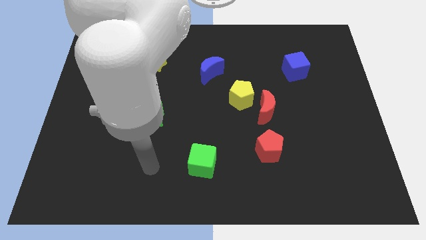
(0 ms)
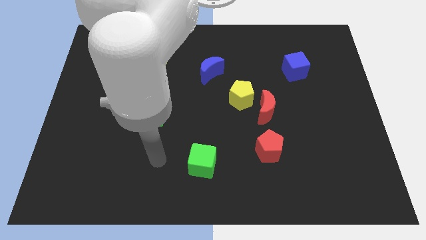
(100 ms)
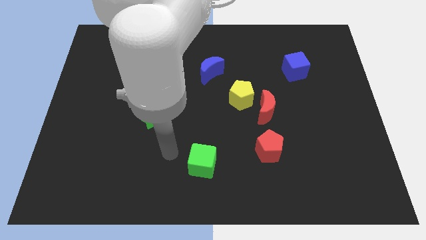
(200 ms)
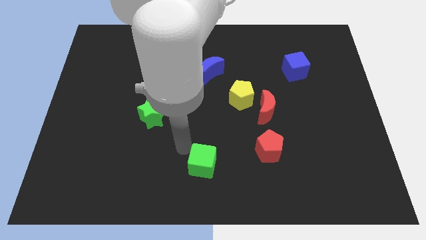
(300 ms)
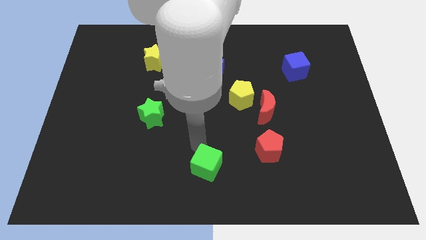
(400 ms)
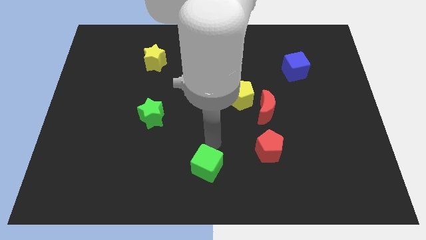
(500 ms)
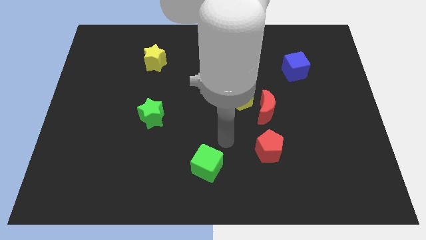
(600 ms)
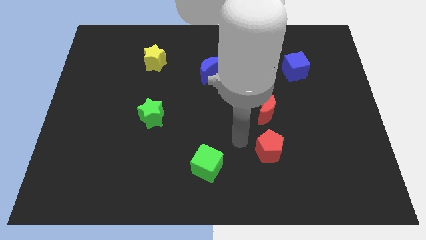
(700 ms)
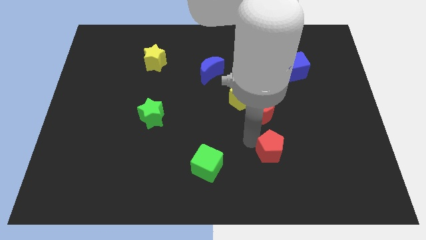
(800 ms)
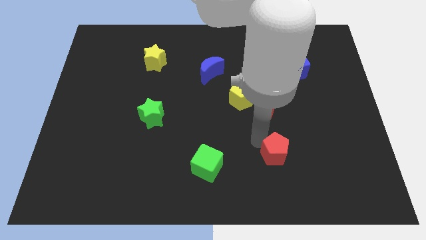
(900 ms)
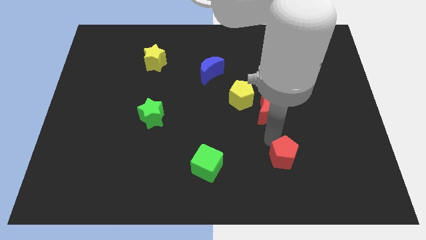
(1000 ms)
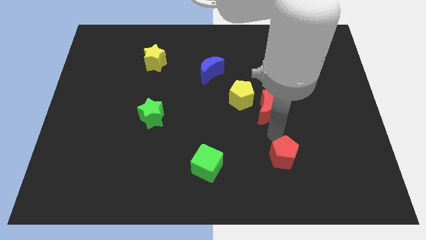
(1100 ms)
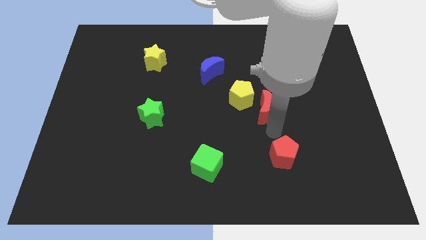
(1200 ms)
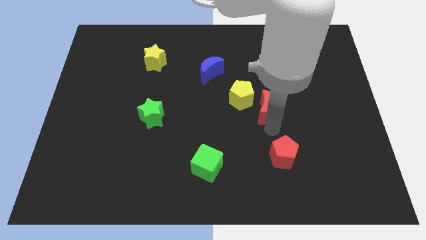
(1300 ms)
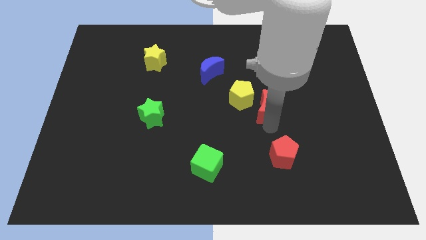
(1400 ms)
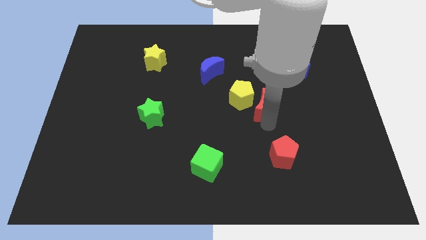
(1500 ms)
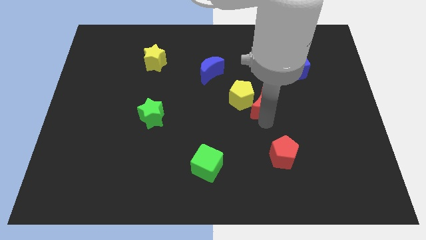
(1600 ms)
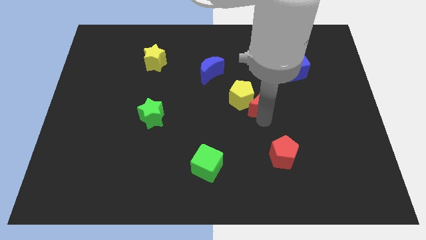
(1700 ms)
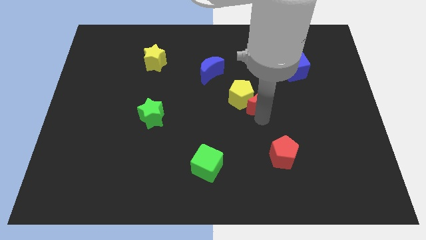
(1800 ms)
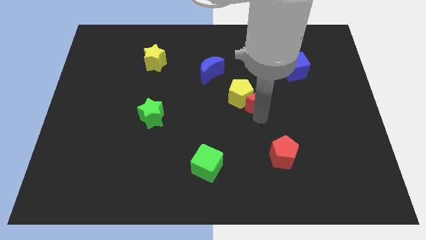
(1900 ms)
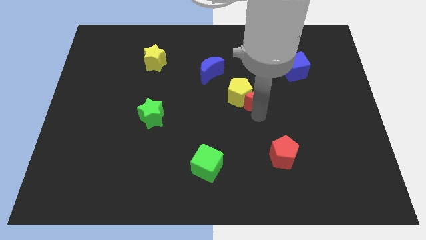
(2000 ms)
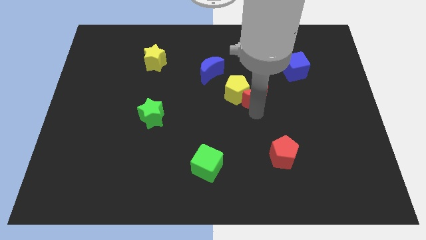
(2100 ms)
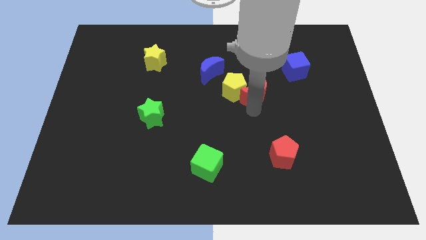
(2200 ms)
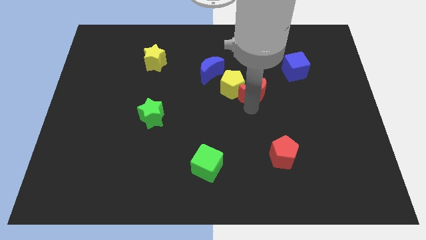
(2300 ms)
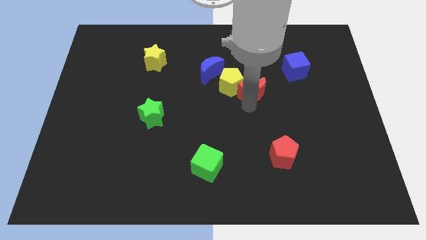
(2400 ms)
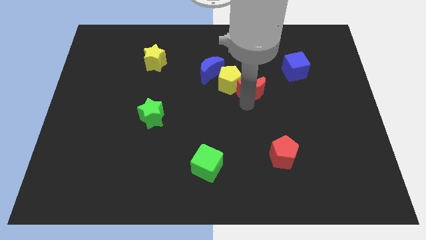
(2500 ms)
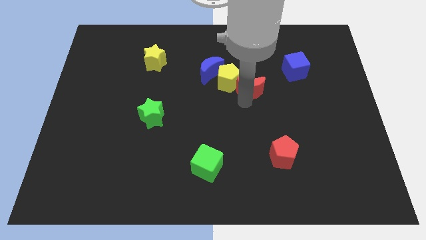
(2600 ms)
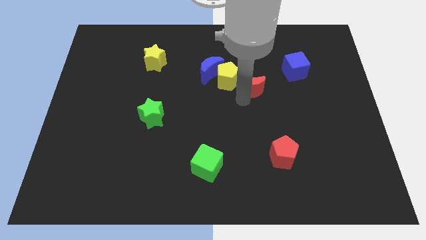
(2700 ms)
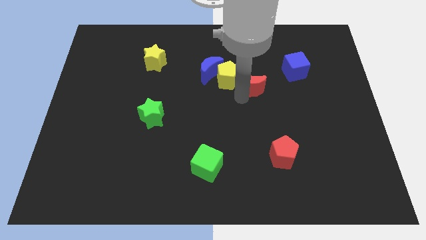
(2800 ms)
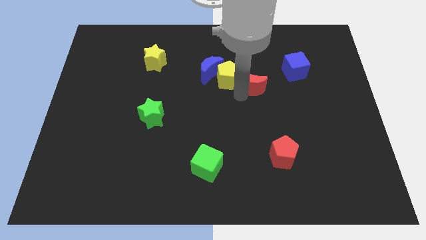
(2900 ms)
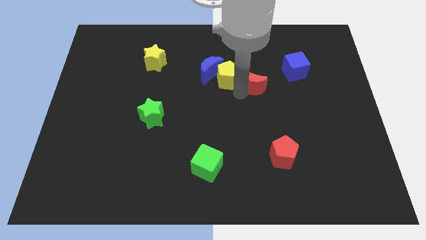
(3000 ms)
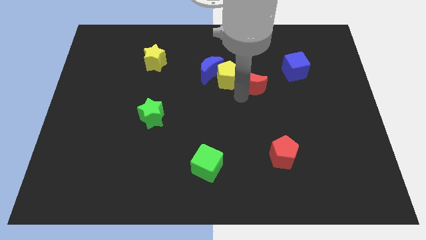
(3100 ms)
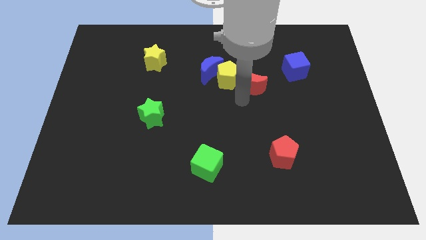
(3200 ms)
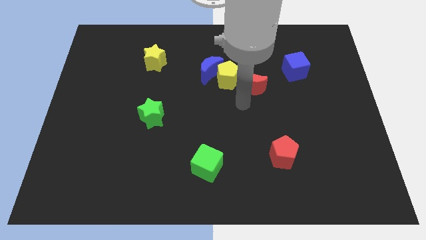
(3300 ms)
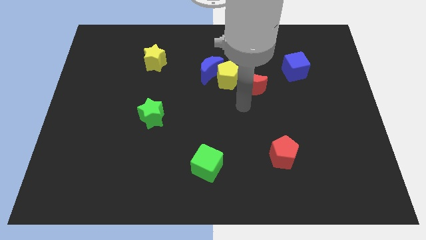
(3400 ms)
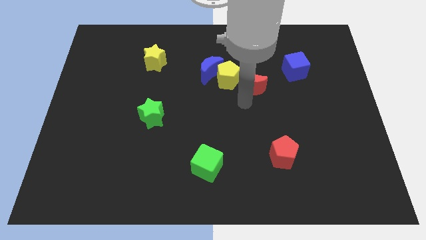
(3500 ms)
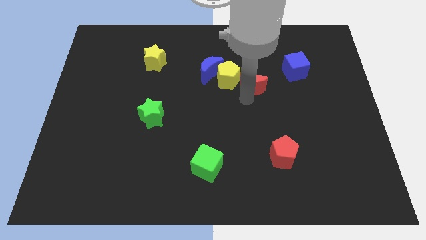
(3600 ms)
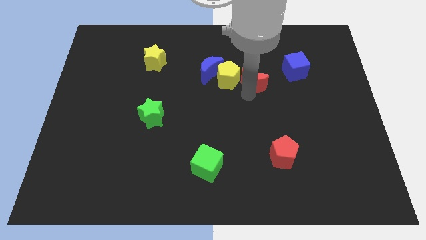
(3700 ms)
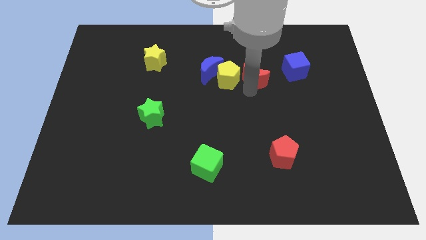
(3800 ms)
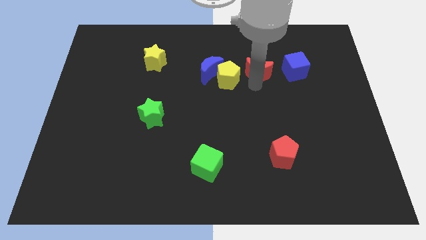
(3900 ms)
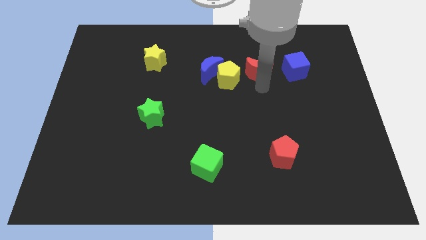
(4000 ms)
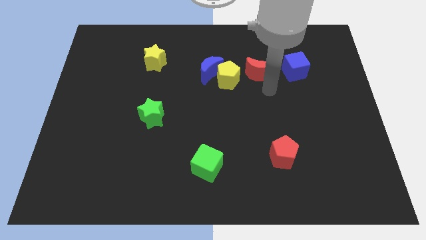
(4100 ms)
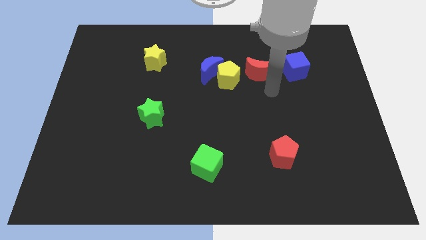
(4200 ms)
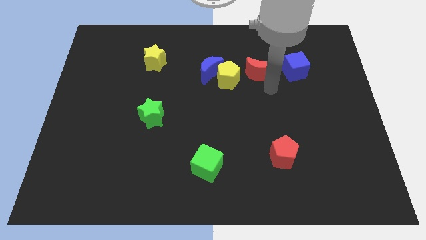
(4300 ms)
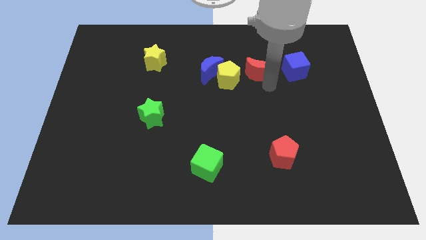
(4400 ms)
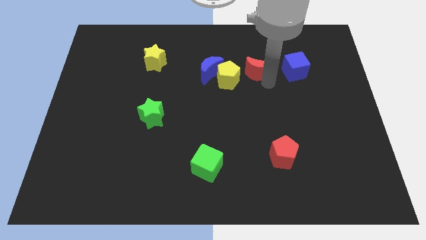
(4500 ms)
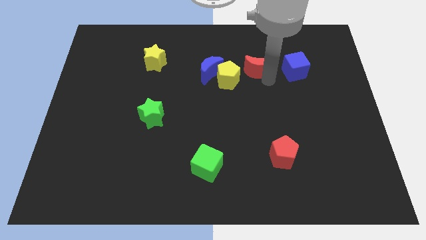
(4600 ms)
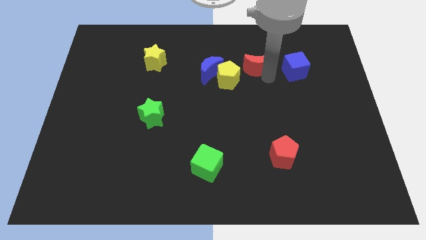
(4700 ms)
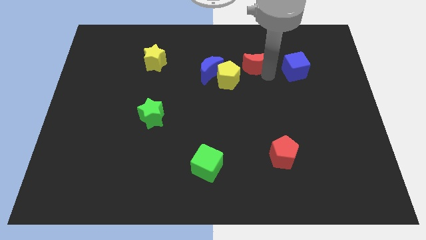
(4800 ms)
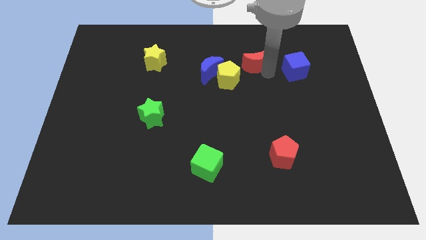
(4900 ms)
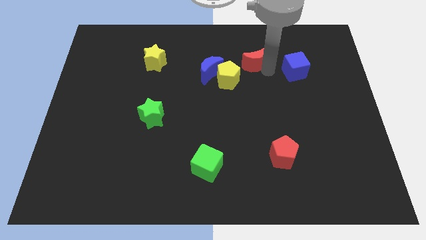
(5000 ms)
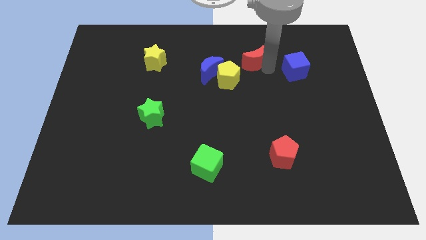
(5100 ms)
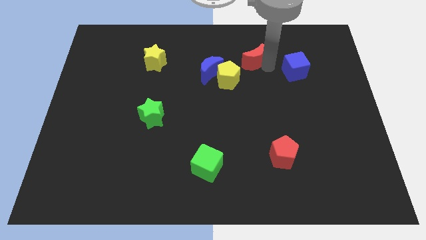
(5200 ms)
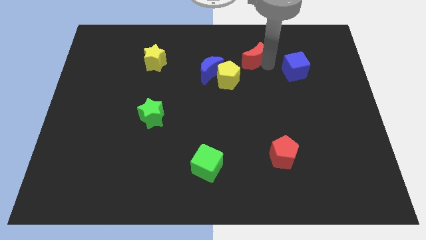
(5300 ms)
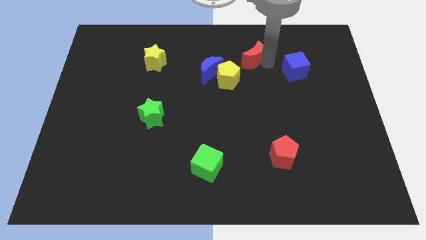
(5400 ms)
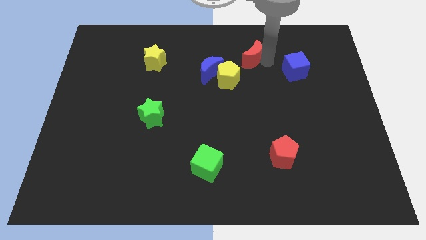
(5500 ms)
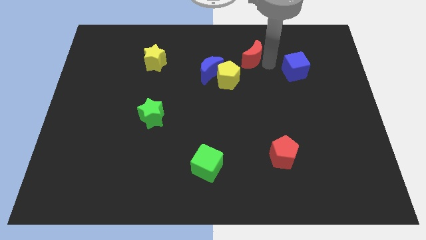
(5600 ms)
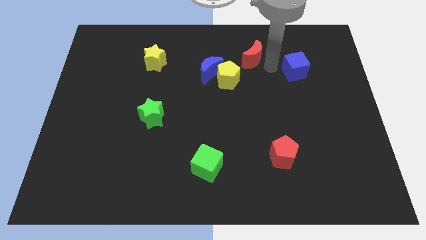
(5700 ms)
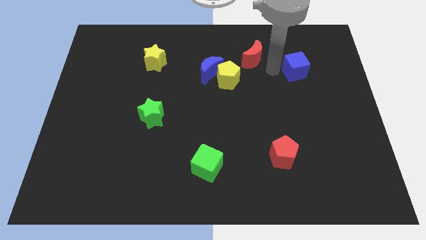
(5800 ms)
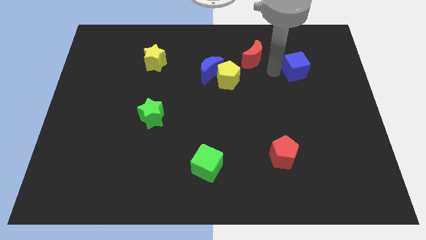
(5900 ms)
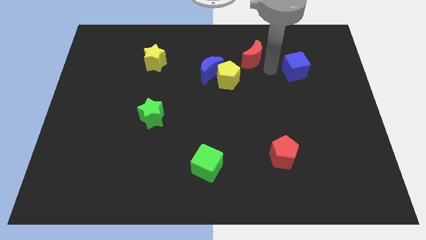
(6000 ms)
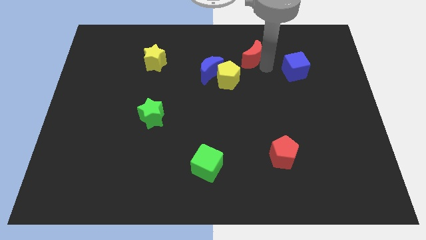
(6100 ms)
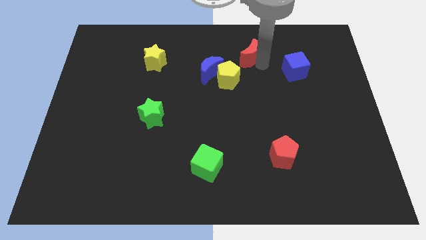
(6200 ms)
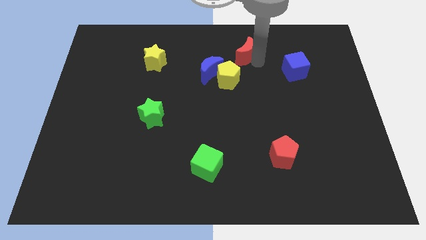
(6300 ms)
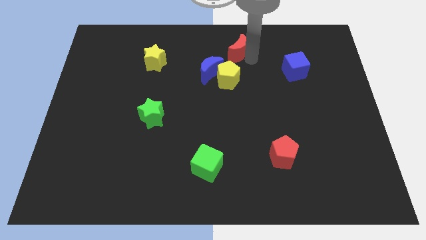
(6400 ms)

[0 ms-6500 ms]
slide the red moon to the top
